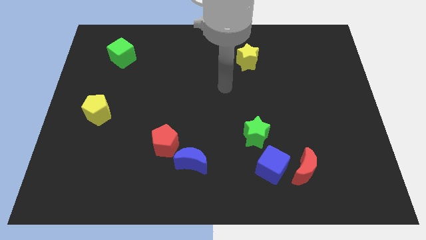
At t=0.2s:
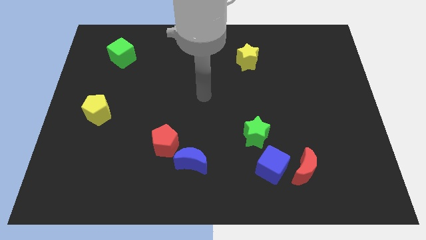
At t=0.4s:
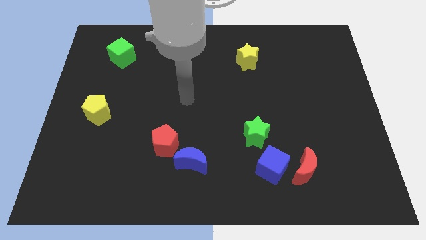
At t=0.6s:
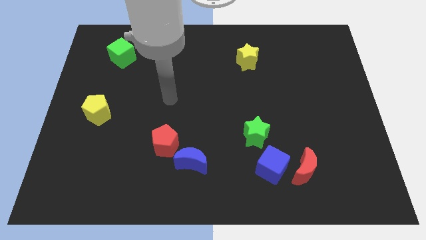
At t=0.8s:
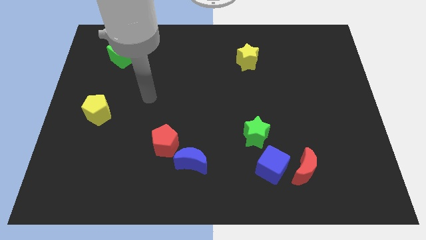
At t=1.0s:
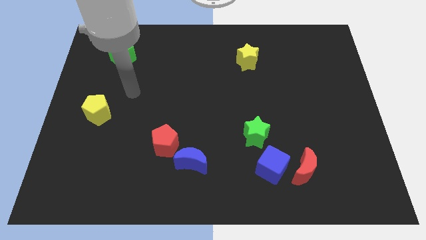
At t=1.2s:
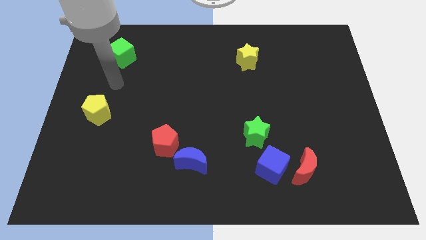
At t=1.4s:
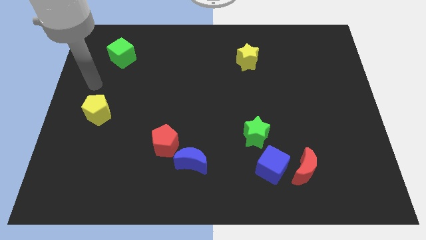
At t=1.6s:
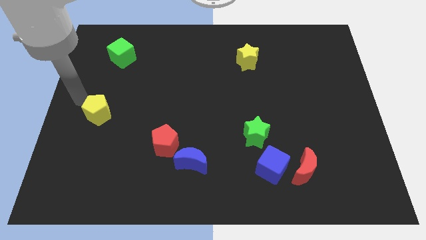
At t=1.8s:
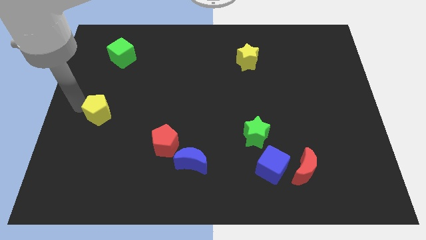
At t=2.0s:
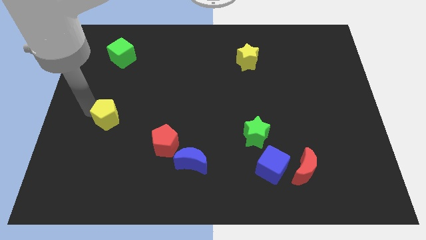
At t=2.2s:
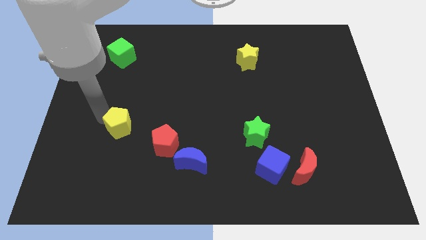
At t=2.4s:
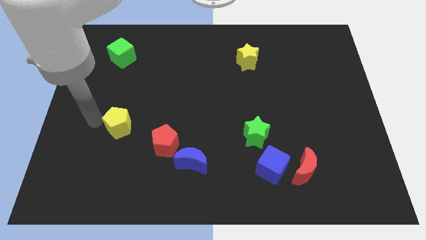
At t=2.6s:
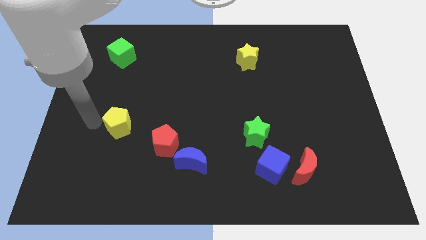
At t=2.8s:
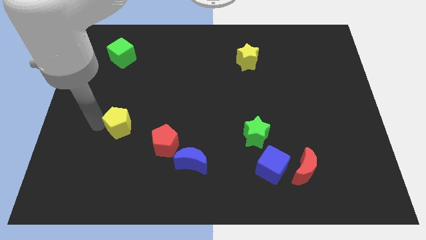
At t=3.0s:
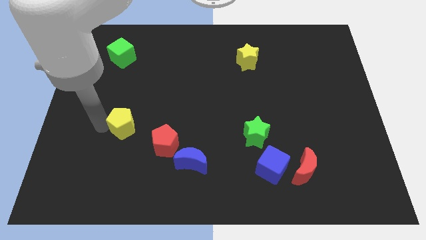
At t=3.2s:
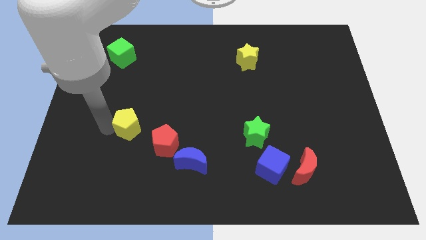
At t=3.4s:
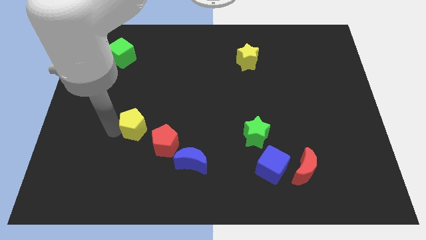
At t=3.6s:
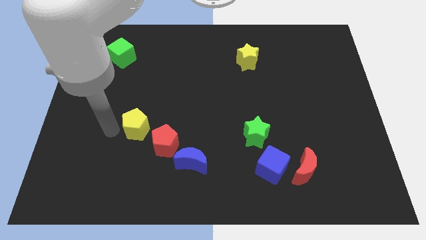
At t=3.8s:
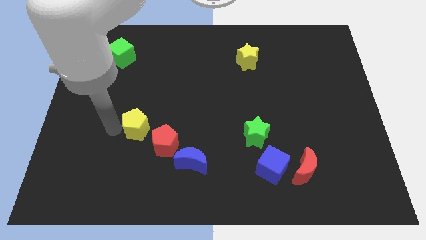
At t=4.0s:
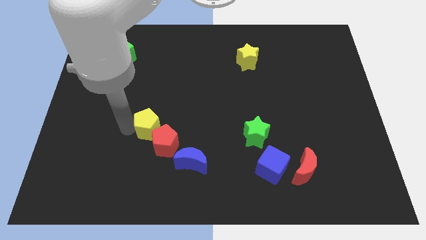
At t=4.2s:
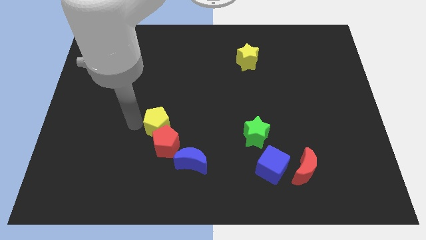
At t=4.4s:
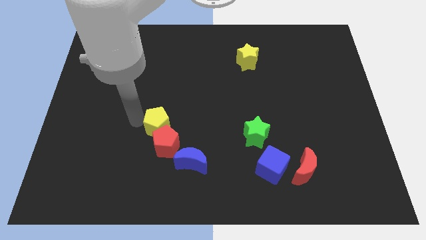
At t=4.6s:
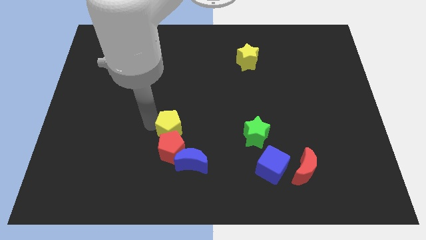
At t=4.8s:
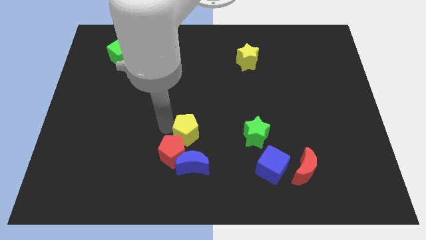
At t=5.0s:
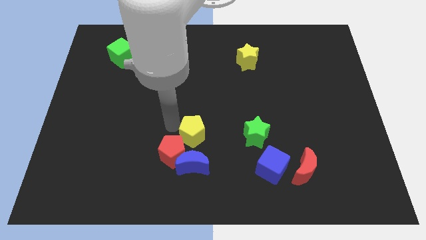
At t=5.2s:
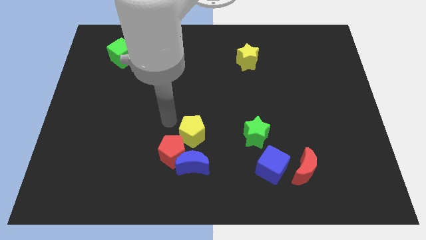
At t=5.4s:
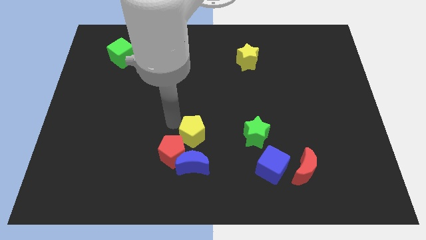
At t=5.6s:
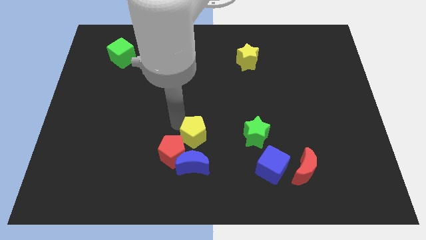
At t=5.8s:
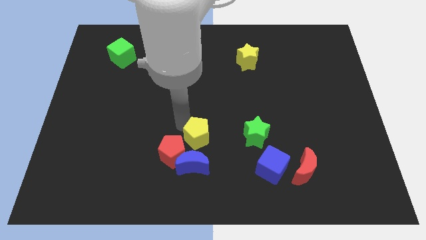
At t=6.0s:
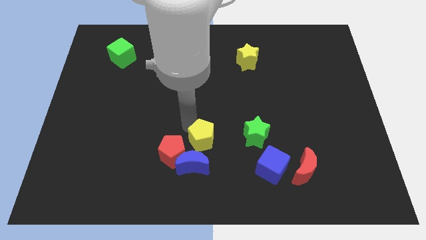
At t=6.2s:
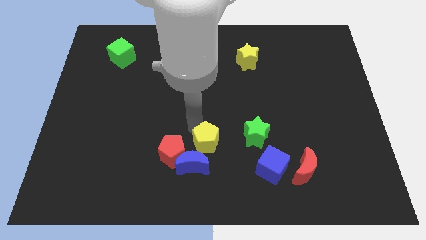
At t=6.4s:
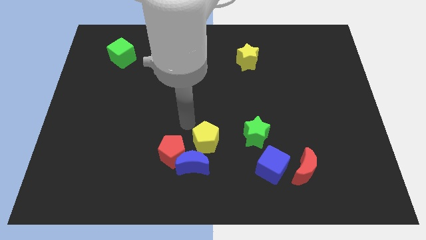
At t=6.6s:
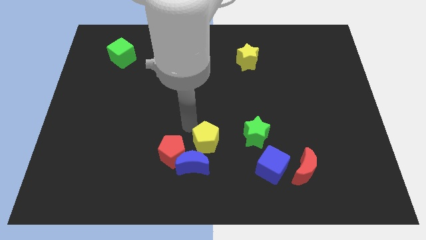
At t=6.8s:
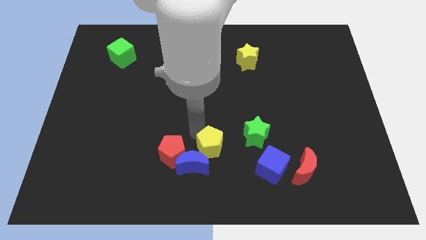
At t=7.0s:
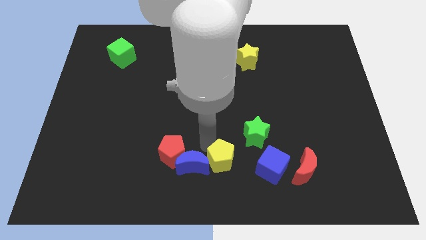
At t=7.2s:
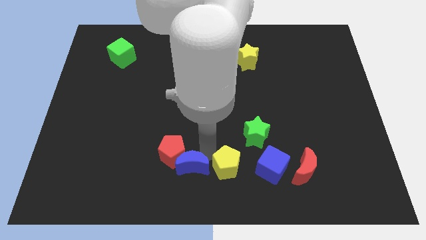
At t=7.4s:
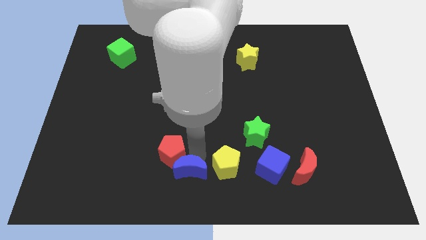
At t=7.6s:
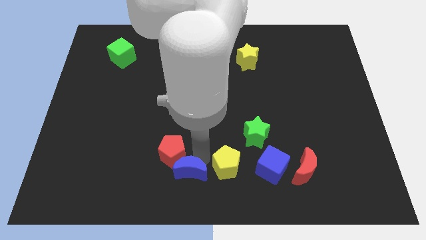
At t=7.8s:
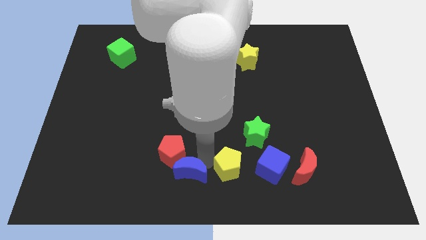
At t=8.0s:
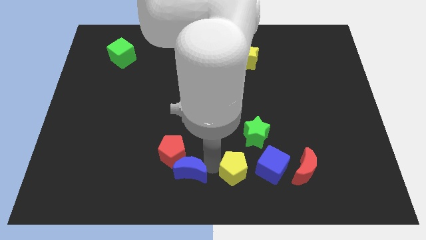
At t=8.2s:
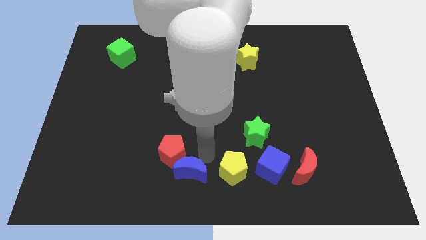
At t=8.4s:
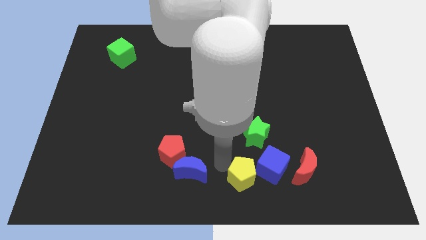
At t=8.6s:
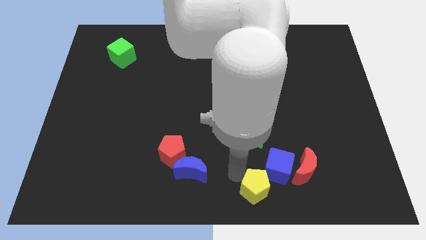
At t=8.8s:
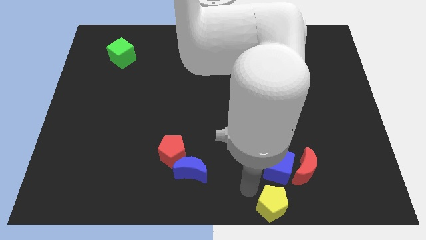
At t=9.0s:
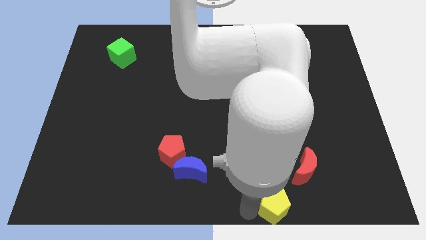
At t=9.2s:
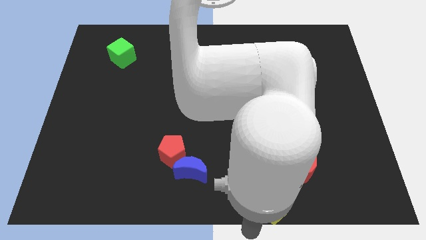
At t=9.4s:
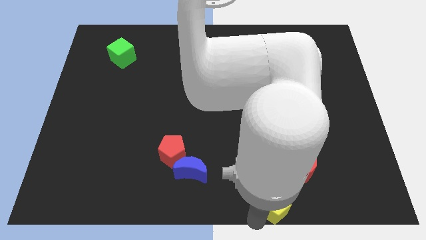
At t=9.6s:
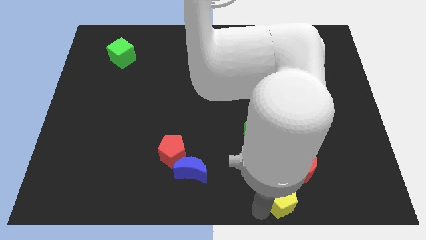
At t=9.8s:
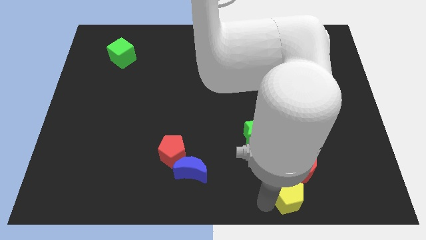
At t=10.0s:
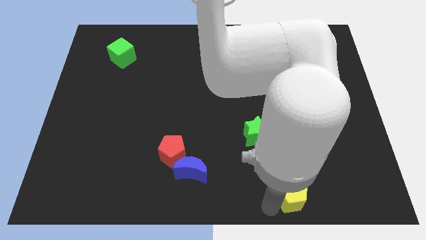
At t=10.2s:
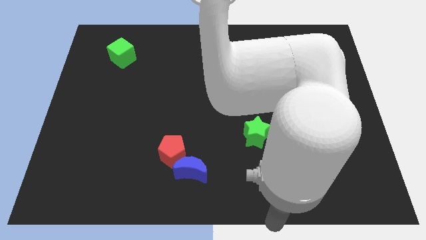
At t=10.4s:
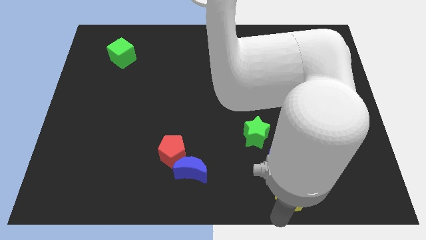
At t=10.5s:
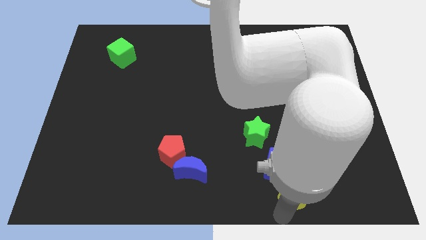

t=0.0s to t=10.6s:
slide the yellow pentagon towards the red moon

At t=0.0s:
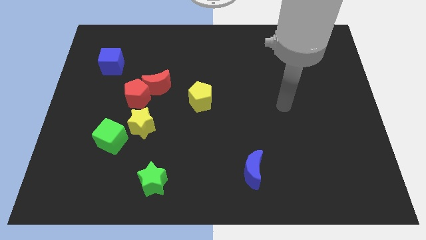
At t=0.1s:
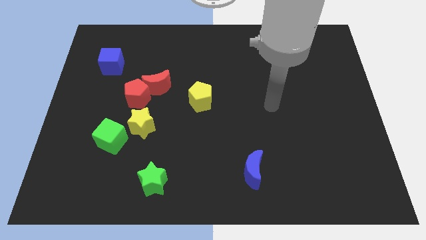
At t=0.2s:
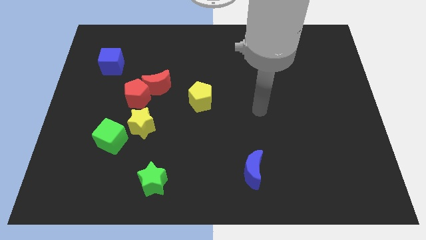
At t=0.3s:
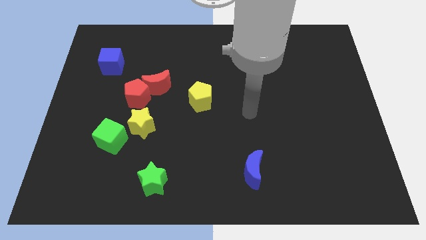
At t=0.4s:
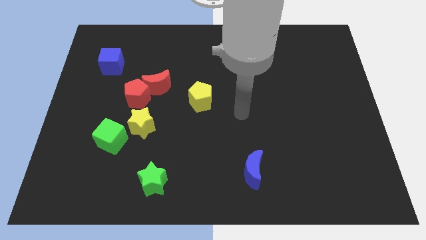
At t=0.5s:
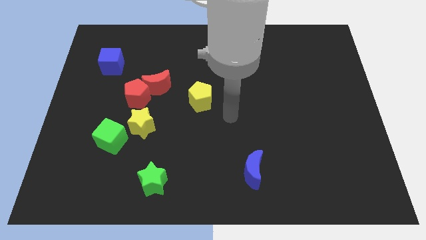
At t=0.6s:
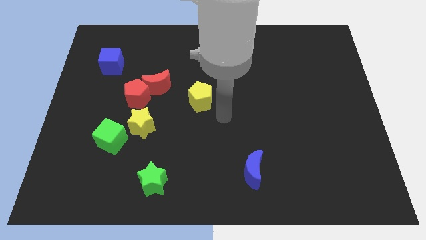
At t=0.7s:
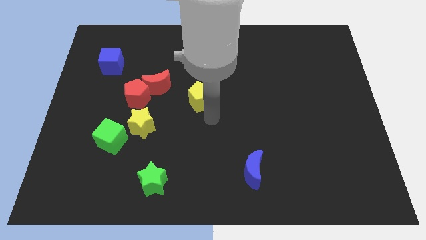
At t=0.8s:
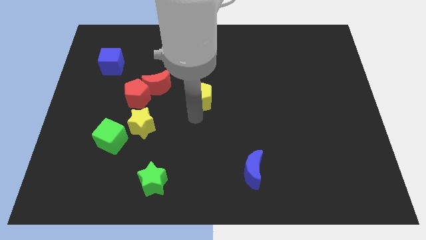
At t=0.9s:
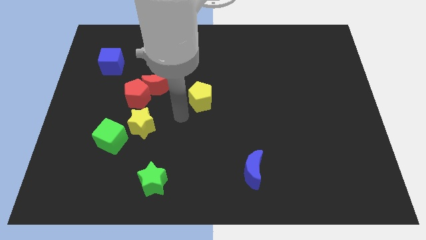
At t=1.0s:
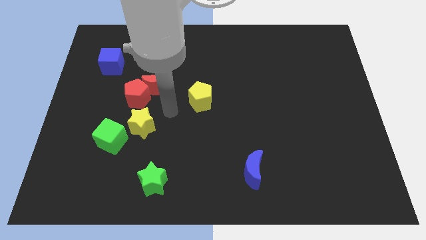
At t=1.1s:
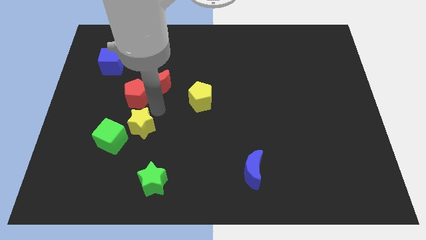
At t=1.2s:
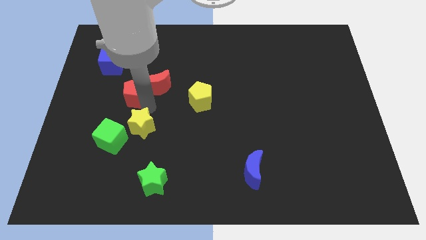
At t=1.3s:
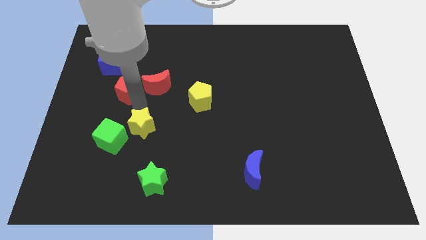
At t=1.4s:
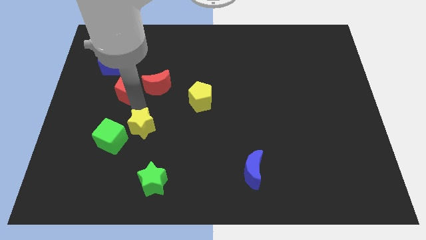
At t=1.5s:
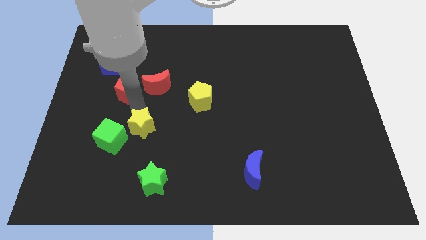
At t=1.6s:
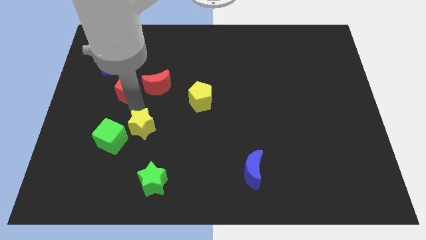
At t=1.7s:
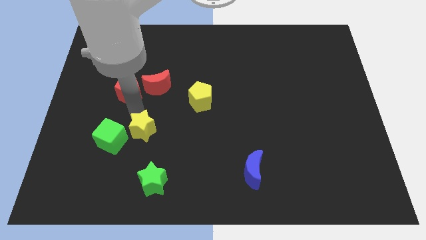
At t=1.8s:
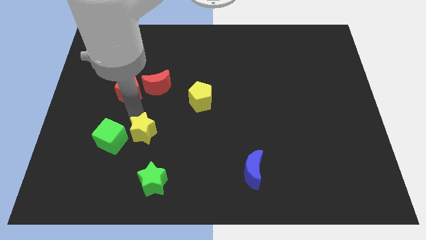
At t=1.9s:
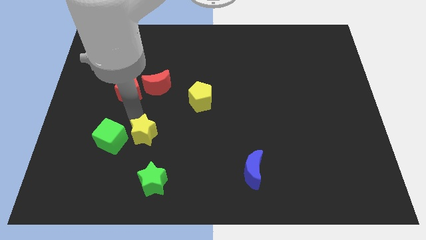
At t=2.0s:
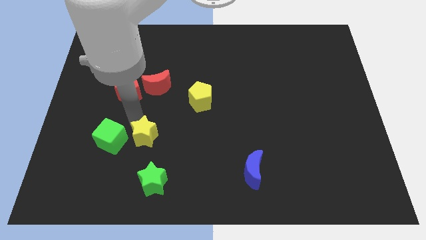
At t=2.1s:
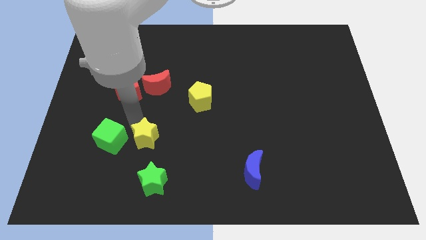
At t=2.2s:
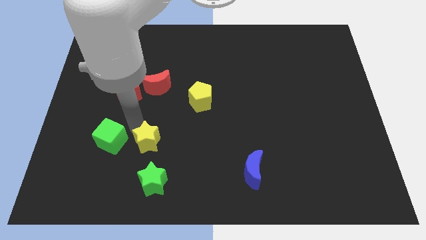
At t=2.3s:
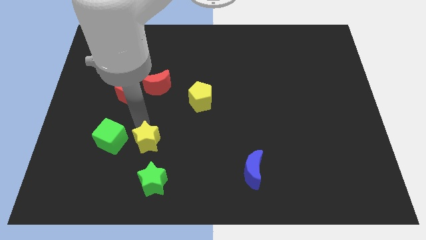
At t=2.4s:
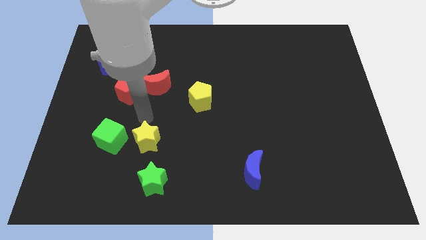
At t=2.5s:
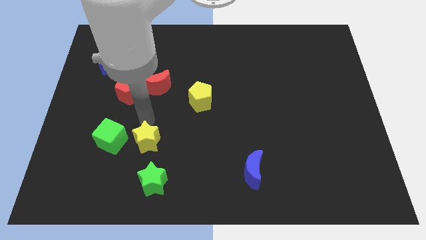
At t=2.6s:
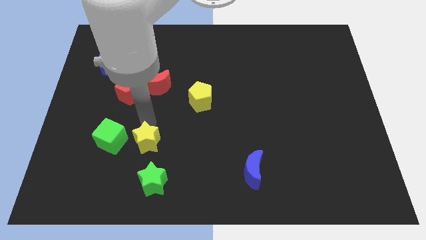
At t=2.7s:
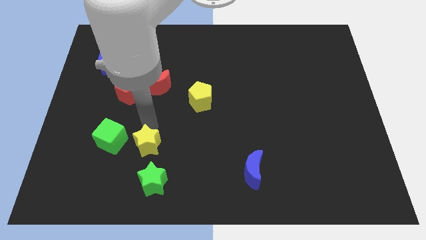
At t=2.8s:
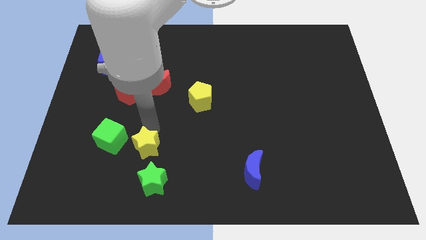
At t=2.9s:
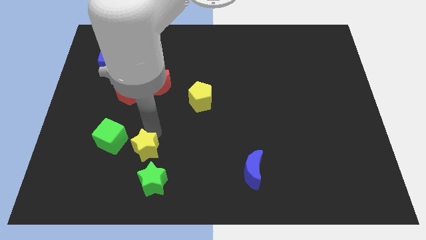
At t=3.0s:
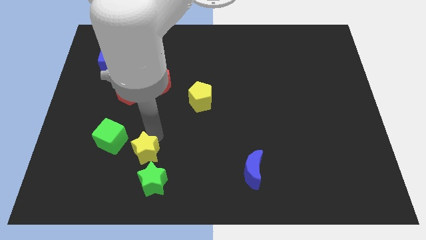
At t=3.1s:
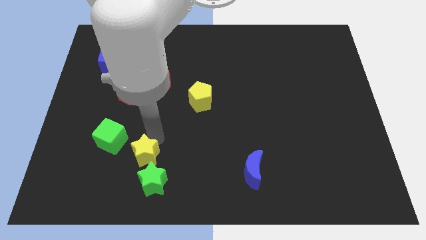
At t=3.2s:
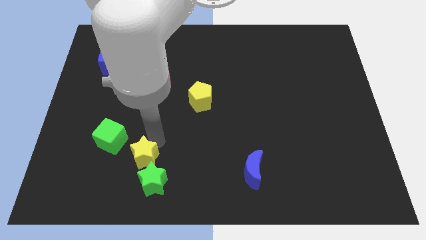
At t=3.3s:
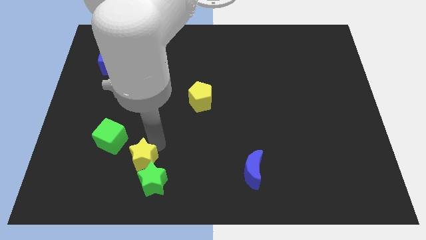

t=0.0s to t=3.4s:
push the yellow star close to the green star
